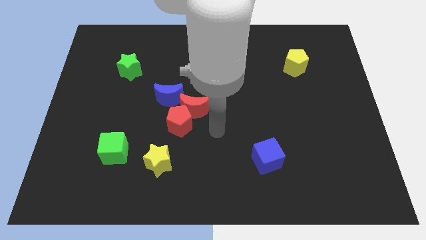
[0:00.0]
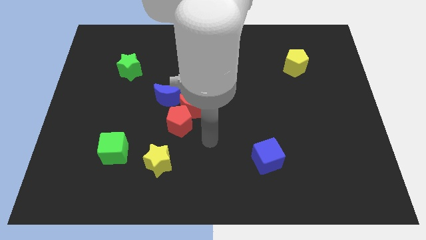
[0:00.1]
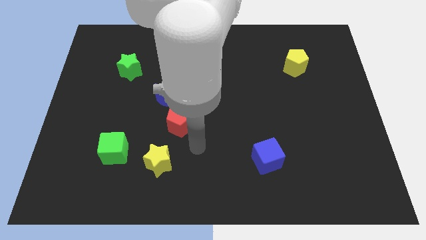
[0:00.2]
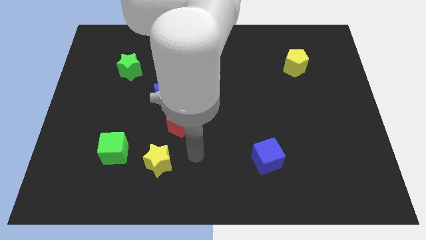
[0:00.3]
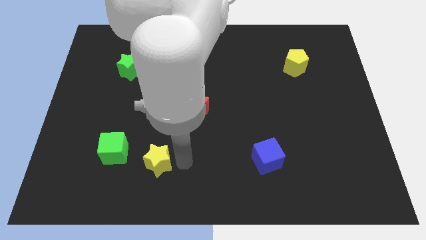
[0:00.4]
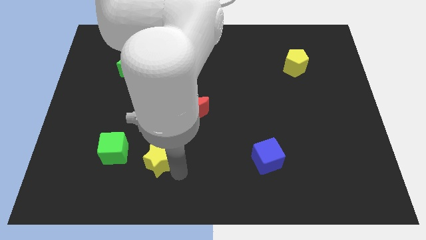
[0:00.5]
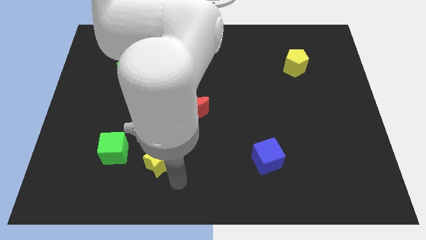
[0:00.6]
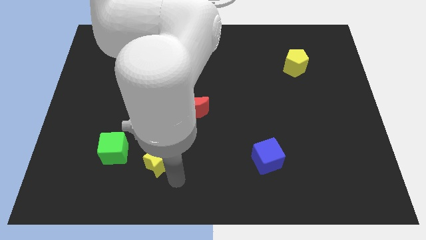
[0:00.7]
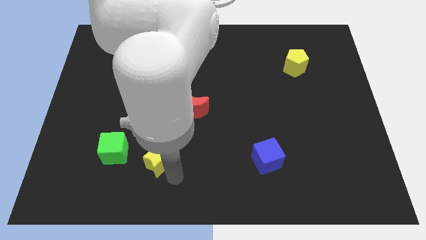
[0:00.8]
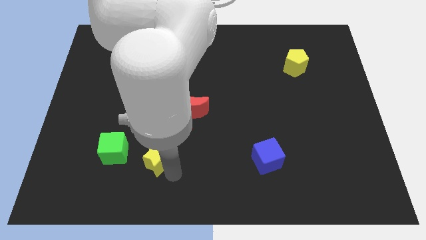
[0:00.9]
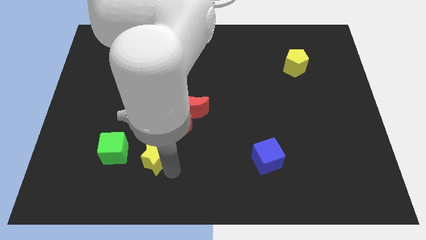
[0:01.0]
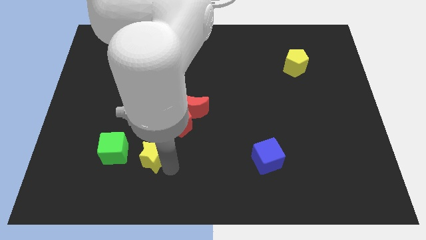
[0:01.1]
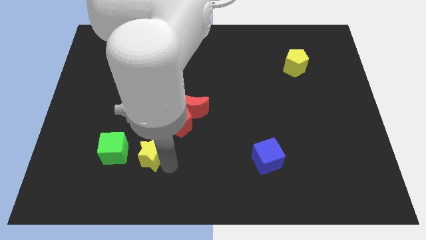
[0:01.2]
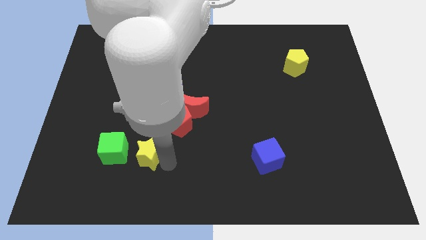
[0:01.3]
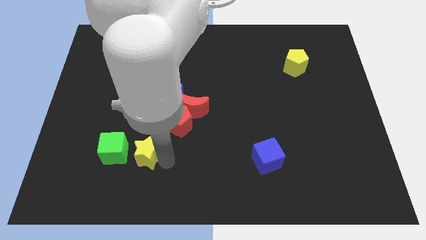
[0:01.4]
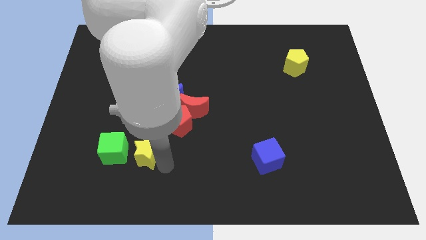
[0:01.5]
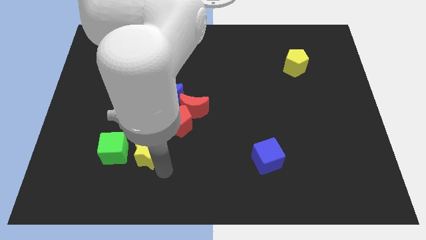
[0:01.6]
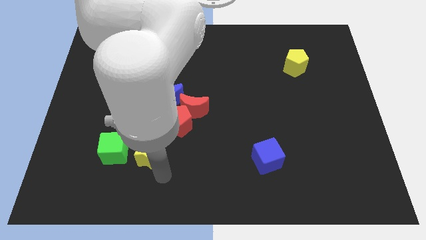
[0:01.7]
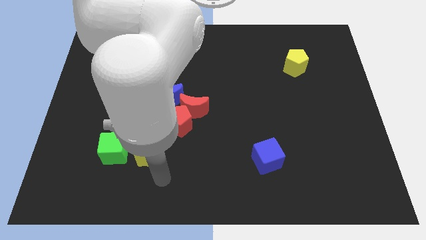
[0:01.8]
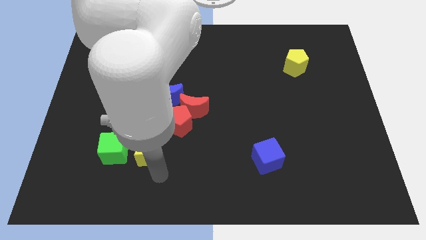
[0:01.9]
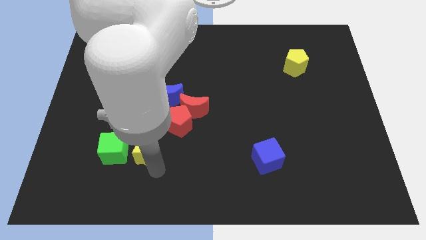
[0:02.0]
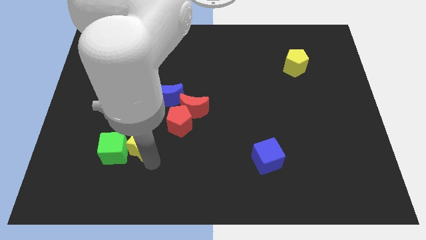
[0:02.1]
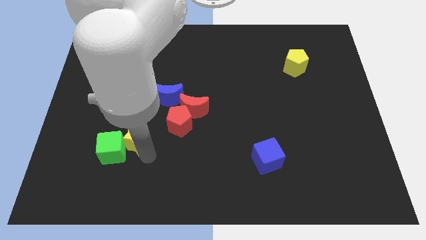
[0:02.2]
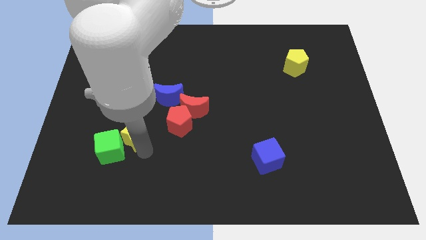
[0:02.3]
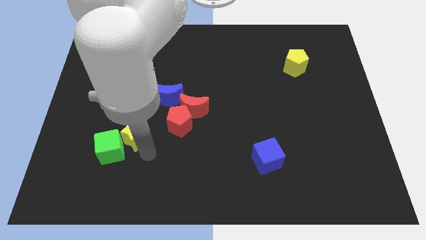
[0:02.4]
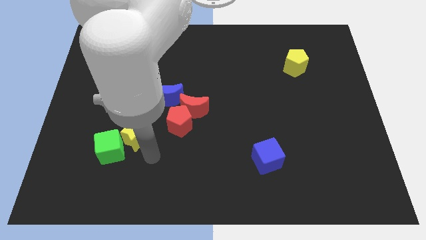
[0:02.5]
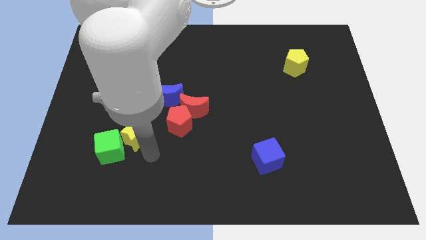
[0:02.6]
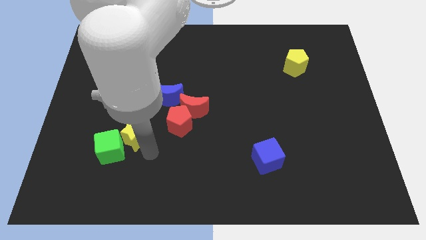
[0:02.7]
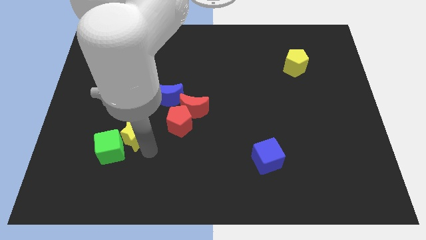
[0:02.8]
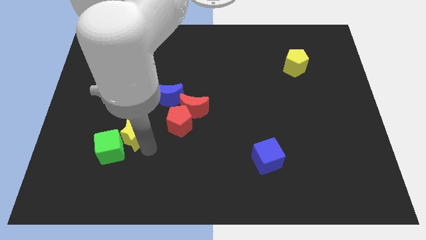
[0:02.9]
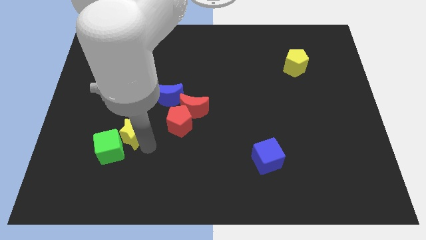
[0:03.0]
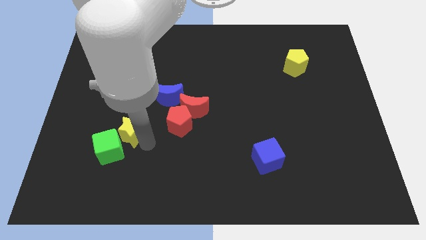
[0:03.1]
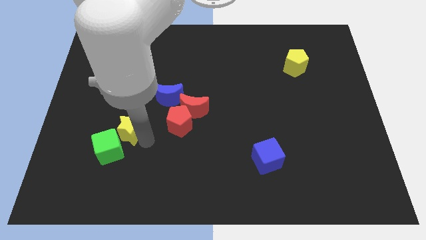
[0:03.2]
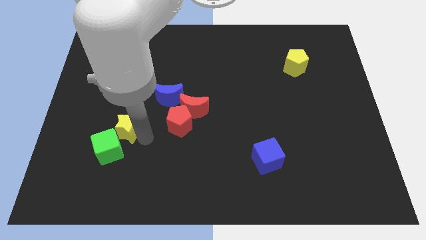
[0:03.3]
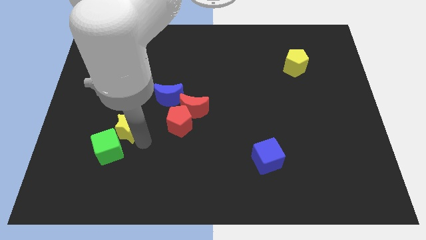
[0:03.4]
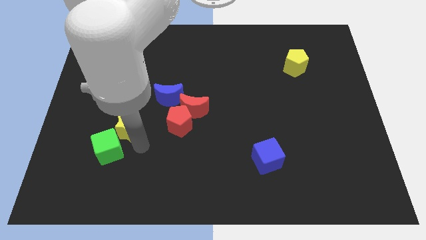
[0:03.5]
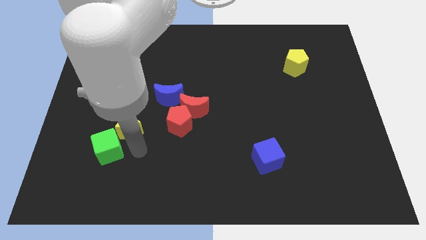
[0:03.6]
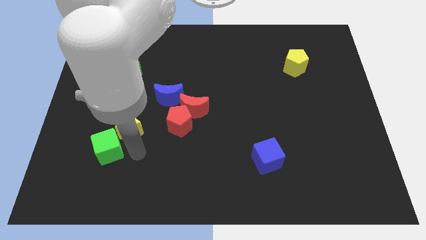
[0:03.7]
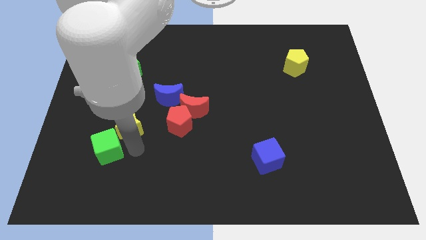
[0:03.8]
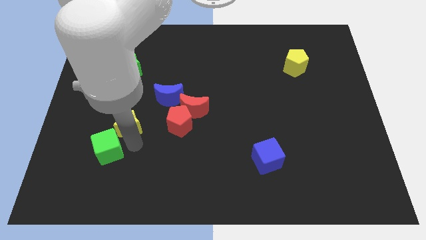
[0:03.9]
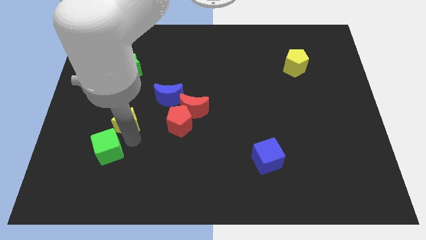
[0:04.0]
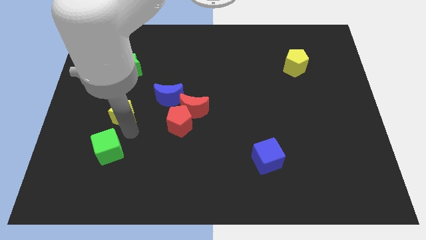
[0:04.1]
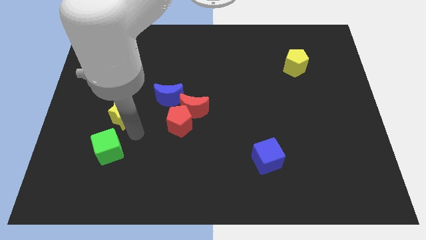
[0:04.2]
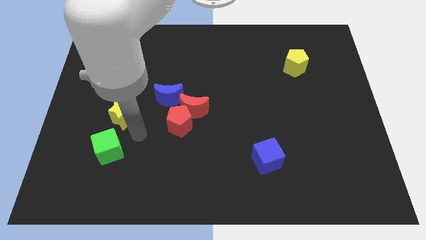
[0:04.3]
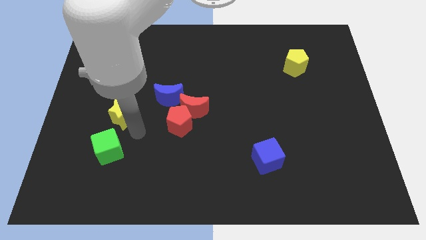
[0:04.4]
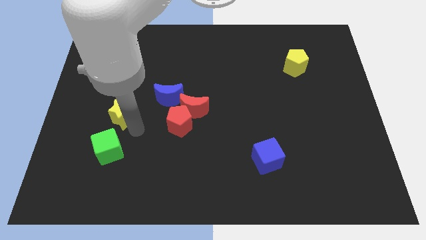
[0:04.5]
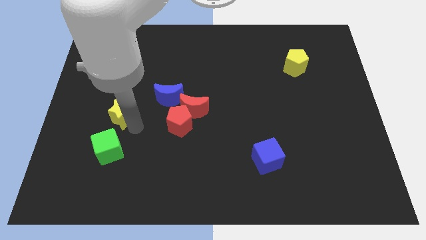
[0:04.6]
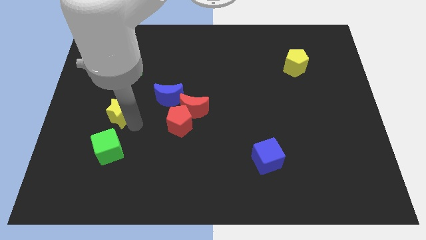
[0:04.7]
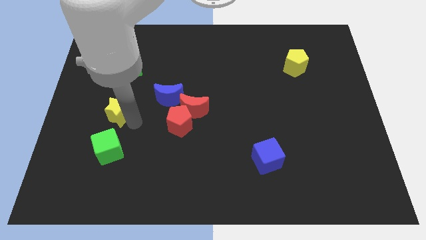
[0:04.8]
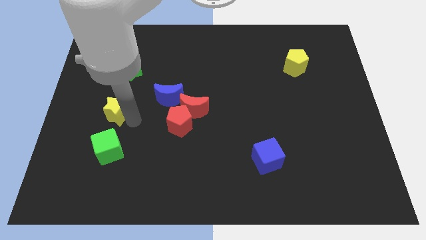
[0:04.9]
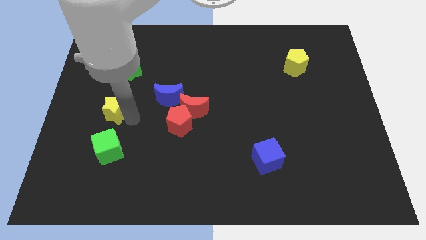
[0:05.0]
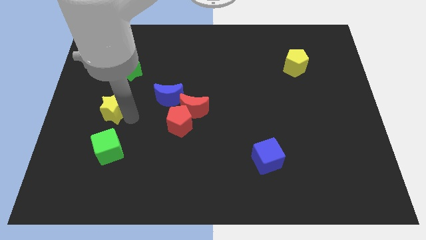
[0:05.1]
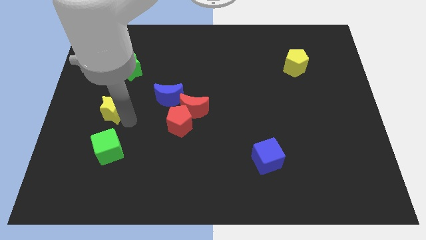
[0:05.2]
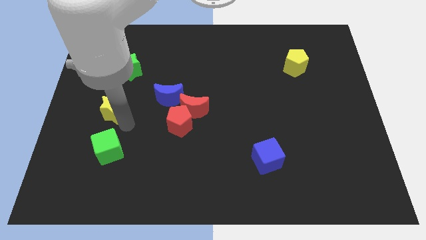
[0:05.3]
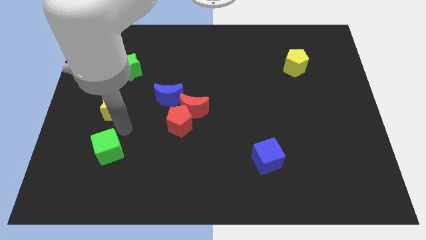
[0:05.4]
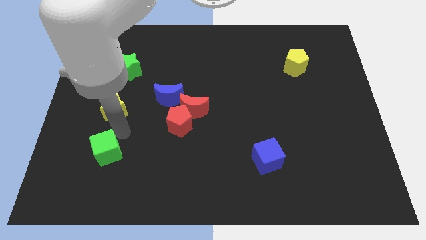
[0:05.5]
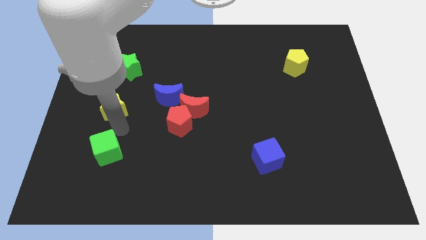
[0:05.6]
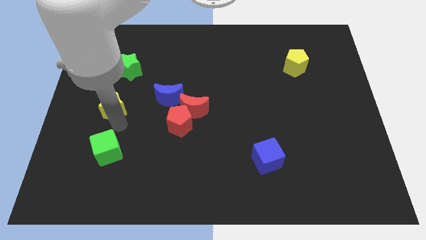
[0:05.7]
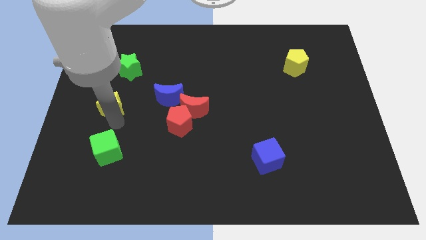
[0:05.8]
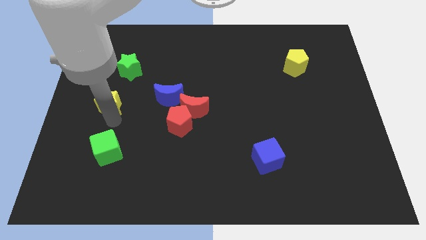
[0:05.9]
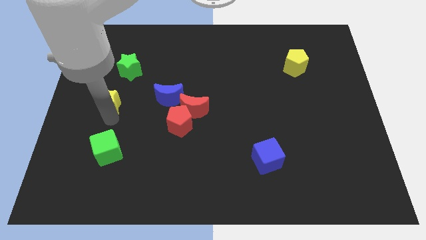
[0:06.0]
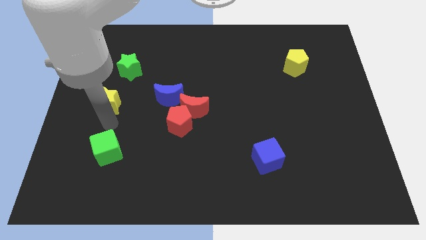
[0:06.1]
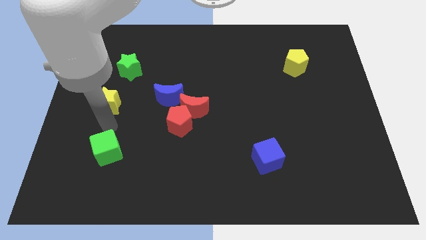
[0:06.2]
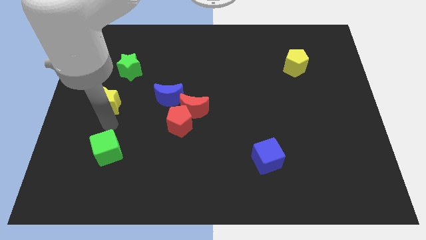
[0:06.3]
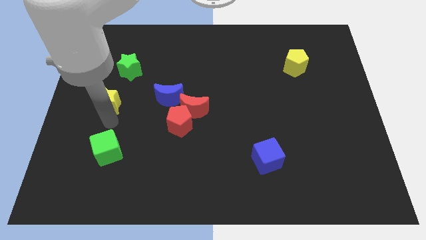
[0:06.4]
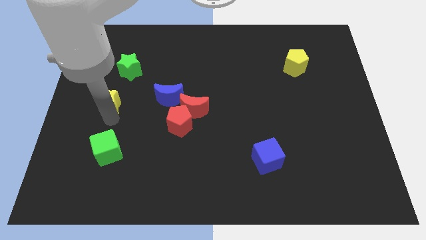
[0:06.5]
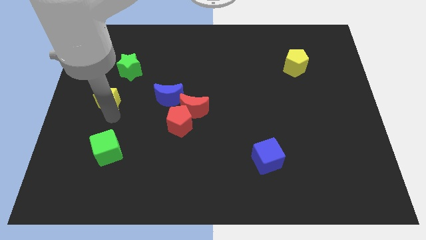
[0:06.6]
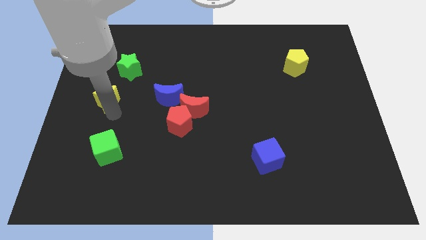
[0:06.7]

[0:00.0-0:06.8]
move the yellow star to the bottom left side of the green star
